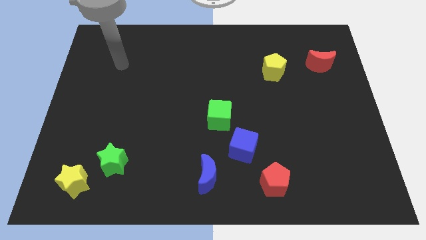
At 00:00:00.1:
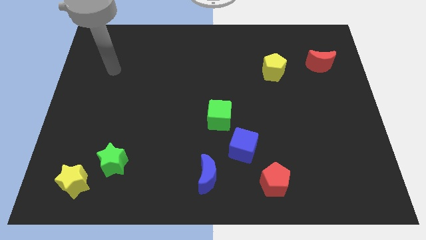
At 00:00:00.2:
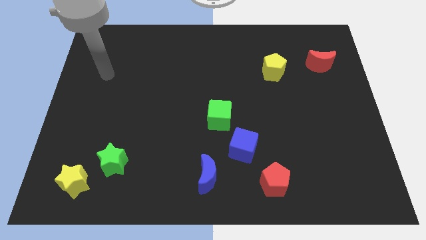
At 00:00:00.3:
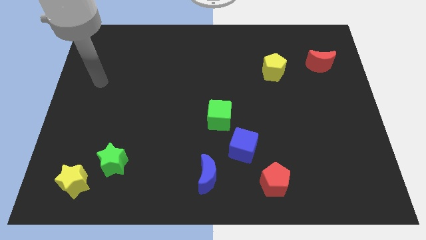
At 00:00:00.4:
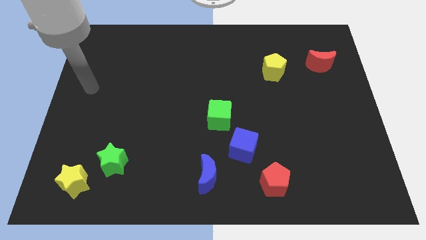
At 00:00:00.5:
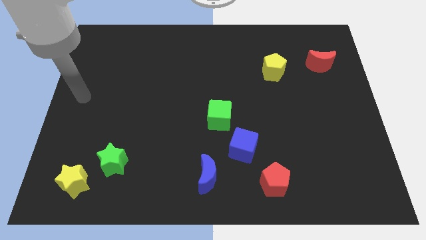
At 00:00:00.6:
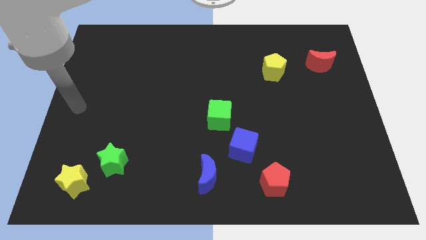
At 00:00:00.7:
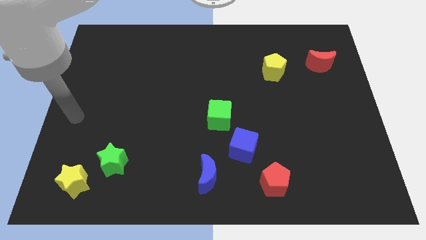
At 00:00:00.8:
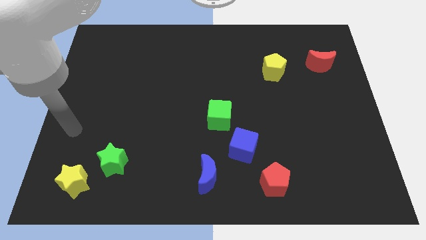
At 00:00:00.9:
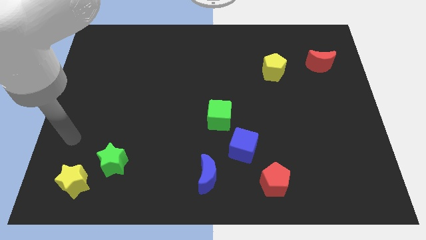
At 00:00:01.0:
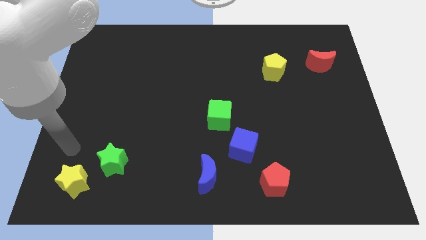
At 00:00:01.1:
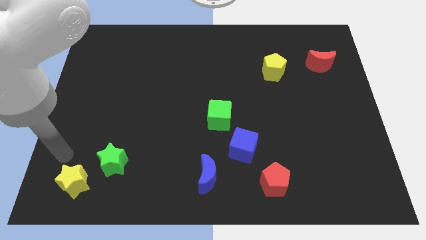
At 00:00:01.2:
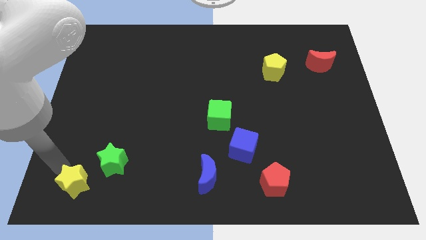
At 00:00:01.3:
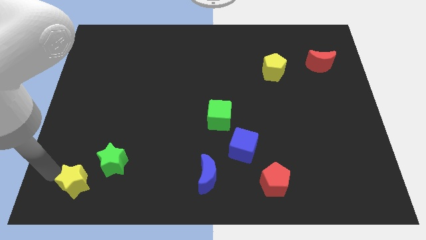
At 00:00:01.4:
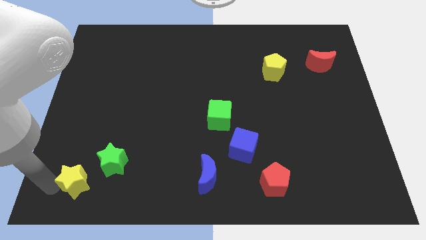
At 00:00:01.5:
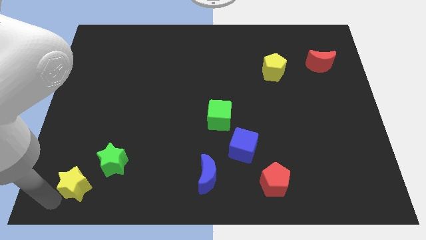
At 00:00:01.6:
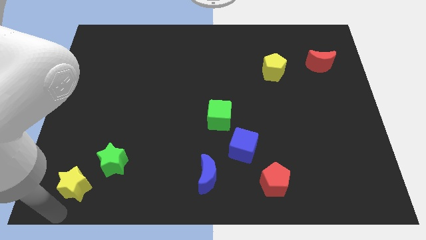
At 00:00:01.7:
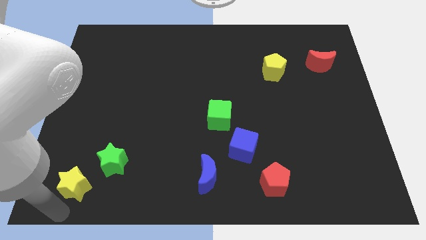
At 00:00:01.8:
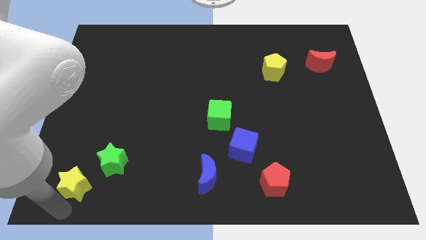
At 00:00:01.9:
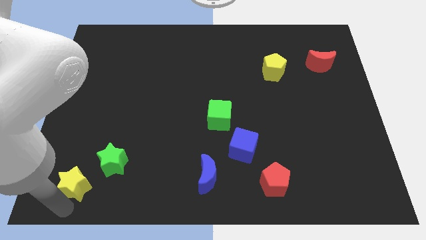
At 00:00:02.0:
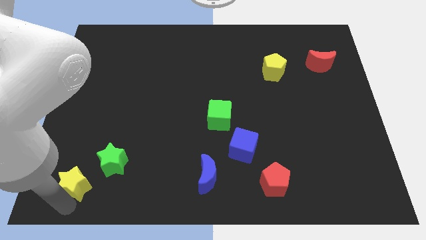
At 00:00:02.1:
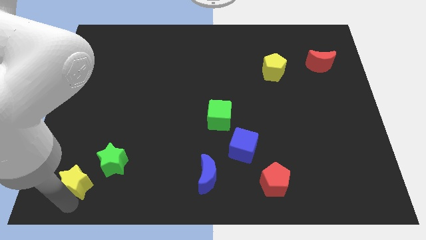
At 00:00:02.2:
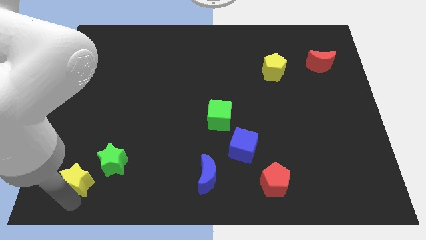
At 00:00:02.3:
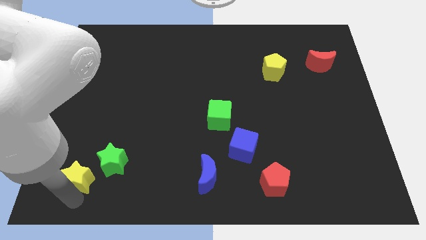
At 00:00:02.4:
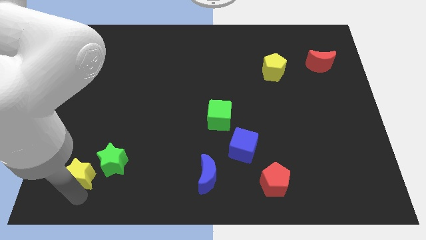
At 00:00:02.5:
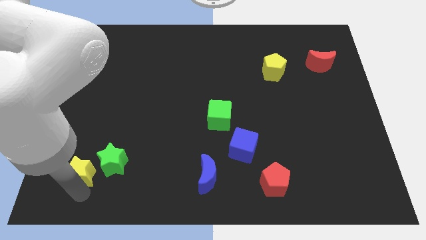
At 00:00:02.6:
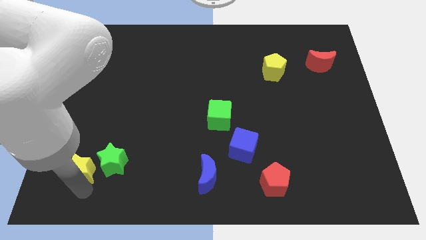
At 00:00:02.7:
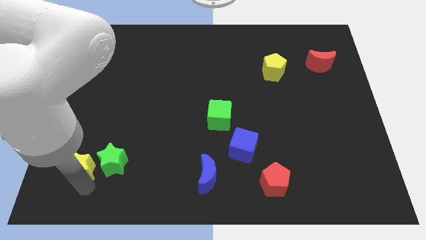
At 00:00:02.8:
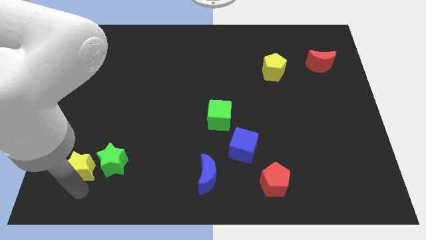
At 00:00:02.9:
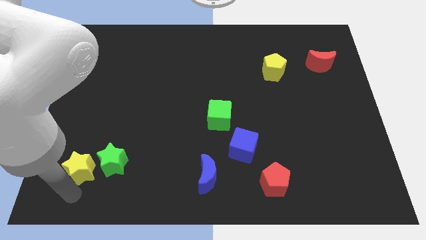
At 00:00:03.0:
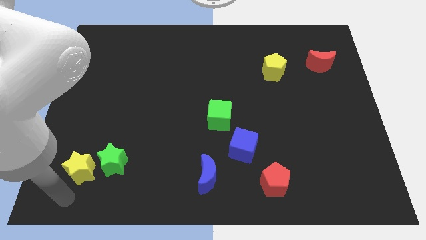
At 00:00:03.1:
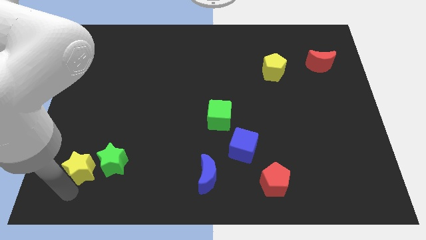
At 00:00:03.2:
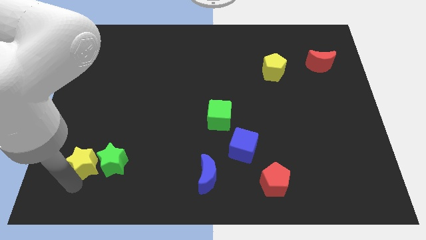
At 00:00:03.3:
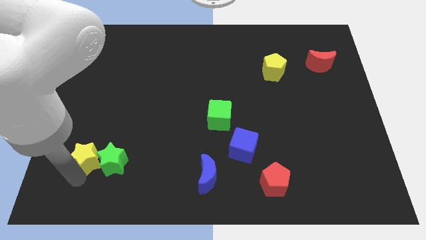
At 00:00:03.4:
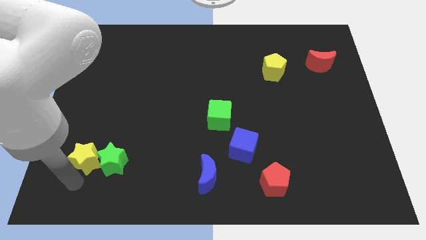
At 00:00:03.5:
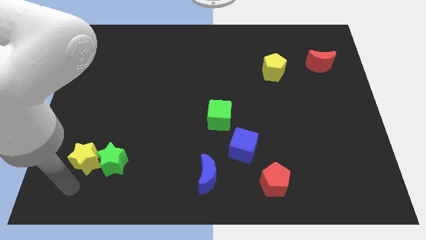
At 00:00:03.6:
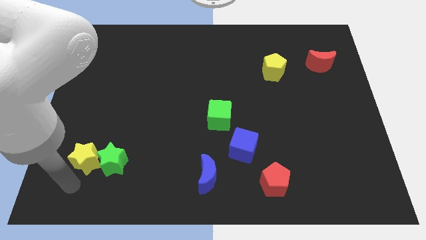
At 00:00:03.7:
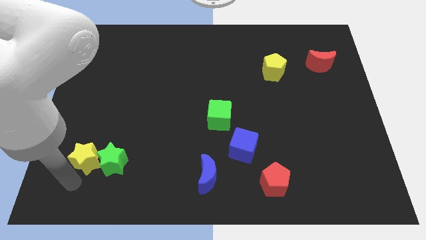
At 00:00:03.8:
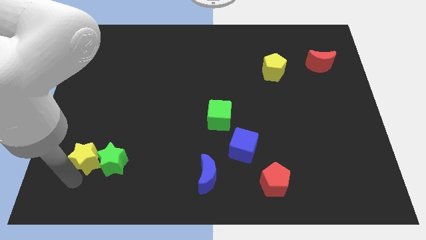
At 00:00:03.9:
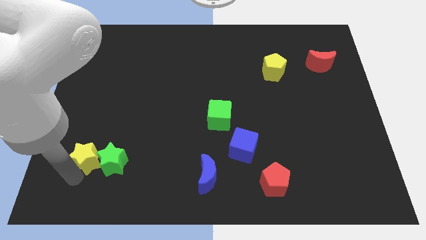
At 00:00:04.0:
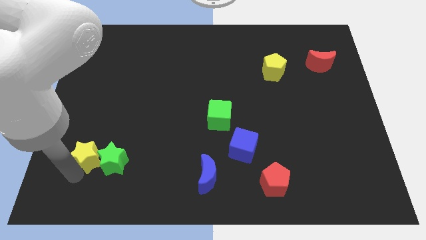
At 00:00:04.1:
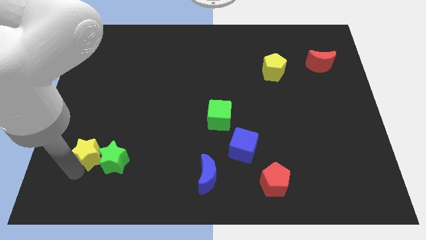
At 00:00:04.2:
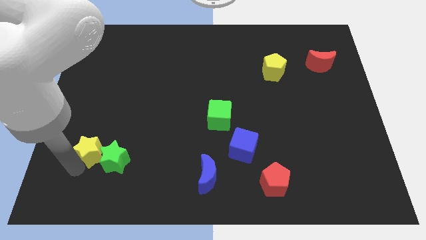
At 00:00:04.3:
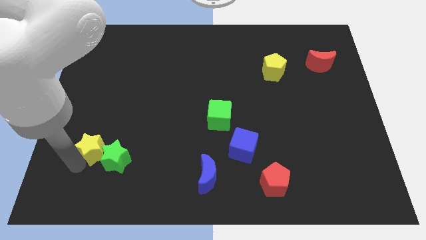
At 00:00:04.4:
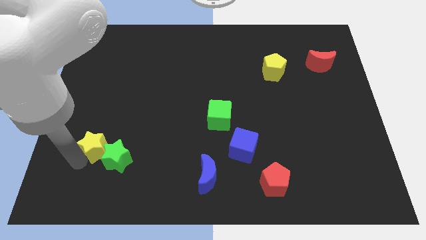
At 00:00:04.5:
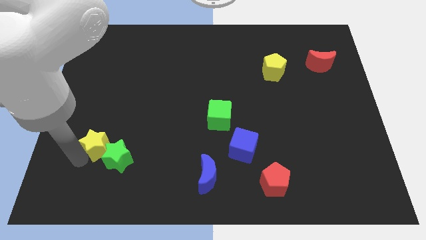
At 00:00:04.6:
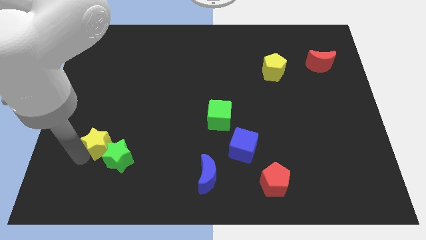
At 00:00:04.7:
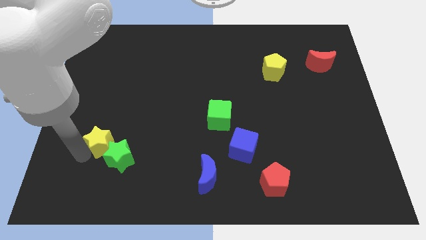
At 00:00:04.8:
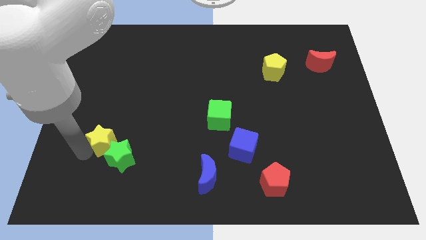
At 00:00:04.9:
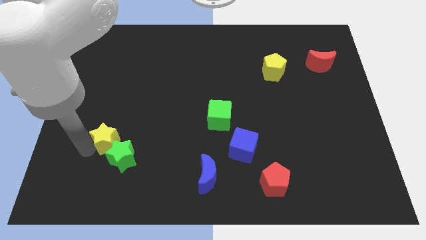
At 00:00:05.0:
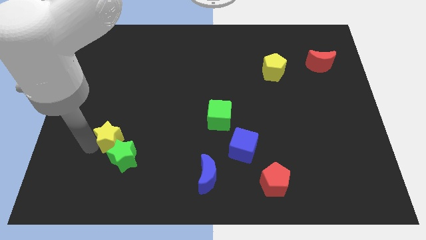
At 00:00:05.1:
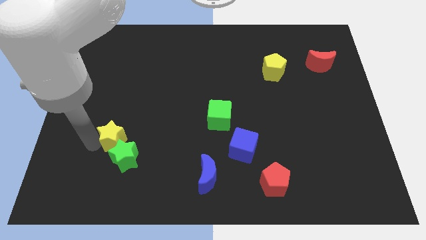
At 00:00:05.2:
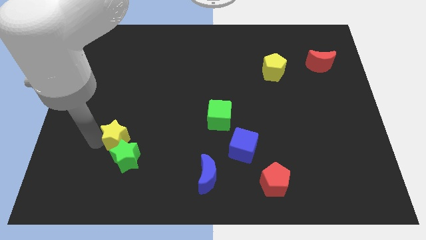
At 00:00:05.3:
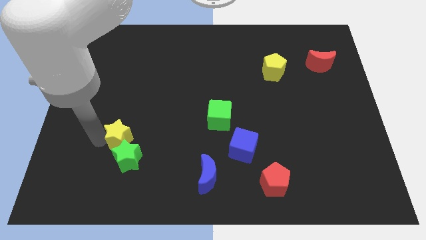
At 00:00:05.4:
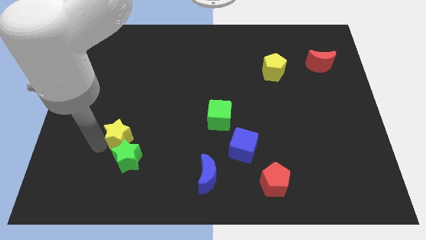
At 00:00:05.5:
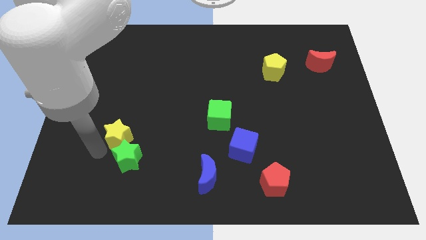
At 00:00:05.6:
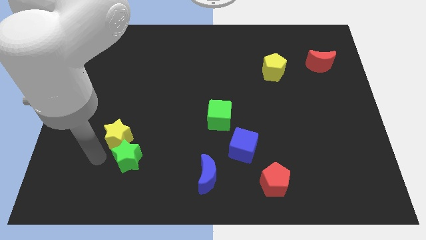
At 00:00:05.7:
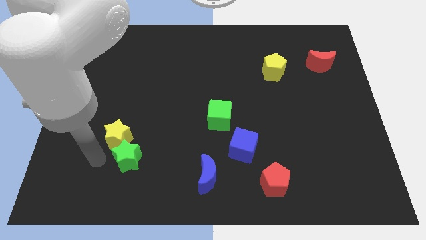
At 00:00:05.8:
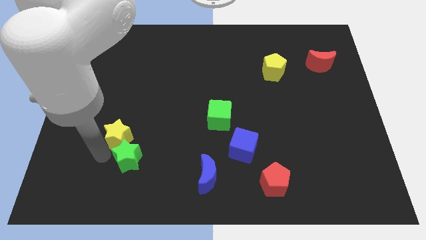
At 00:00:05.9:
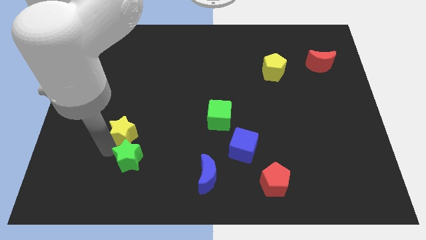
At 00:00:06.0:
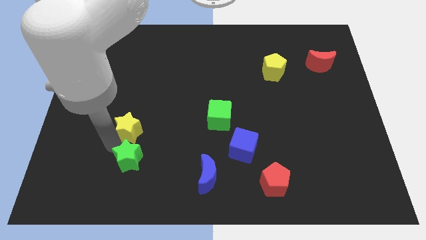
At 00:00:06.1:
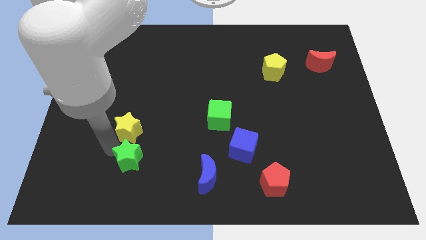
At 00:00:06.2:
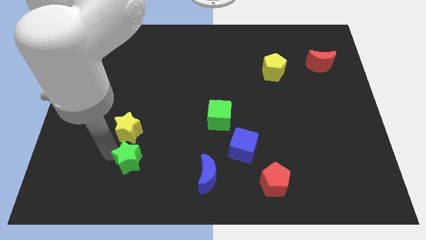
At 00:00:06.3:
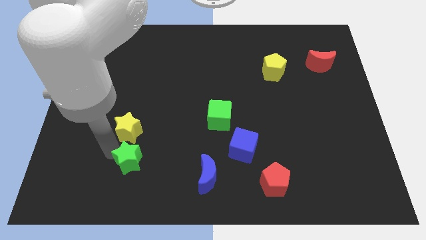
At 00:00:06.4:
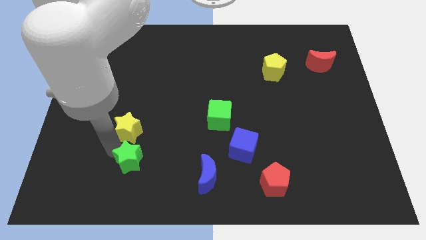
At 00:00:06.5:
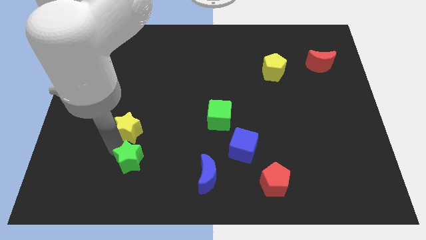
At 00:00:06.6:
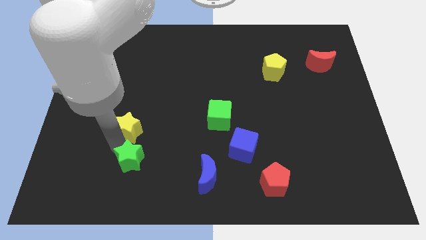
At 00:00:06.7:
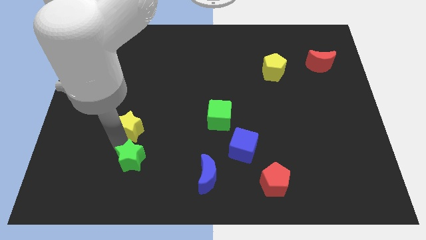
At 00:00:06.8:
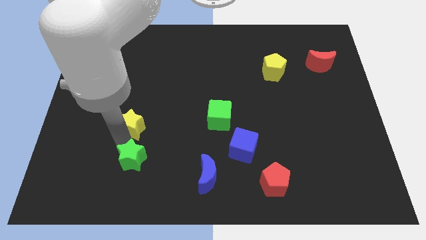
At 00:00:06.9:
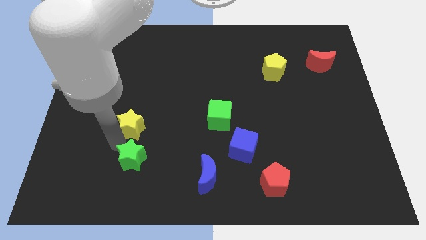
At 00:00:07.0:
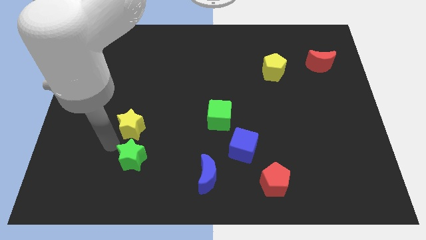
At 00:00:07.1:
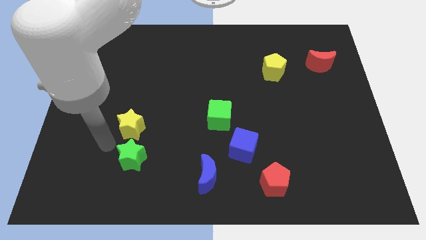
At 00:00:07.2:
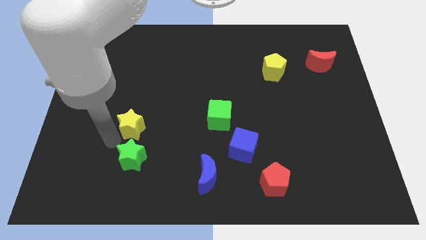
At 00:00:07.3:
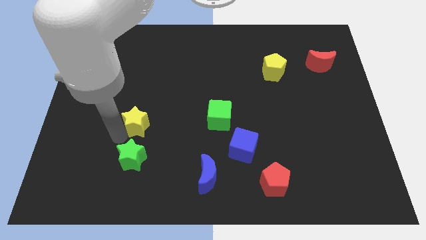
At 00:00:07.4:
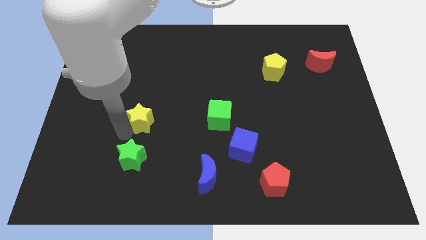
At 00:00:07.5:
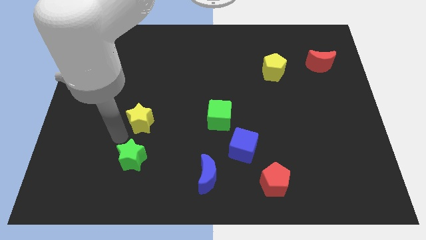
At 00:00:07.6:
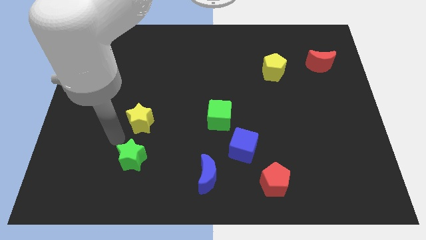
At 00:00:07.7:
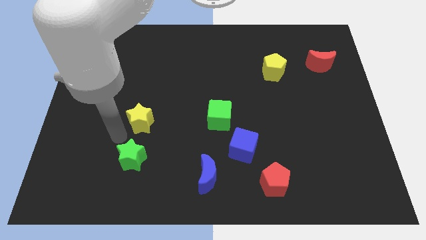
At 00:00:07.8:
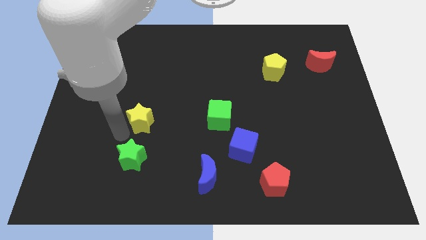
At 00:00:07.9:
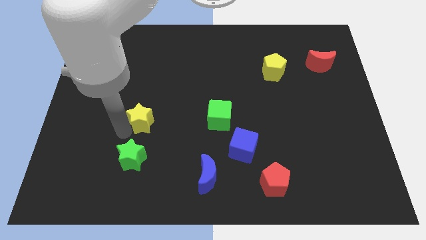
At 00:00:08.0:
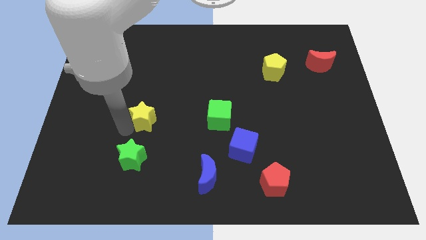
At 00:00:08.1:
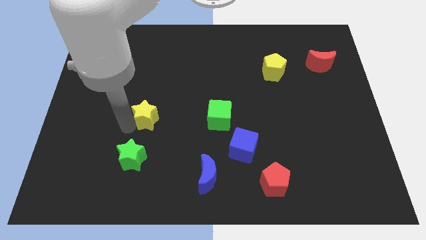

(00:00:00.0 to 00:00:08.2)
slide the yellow star upwards and then to the right
